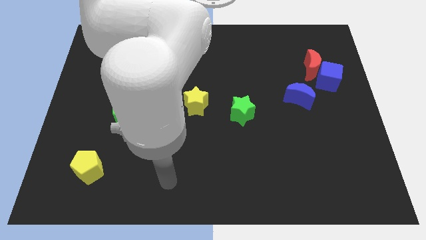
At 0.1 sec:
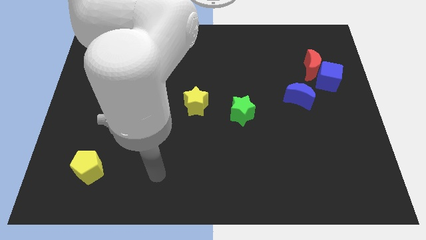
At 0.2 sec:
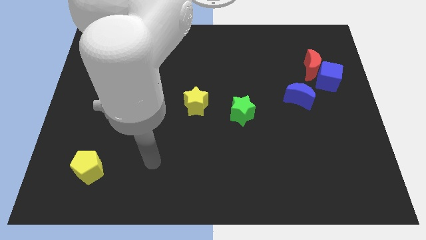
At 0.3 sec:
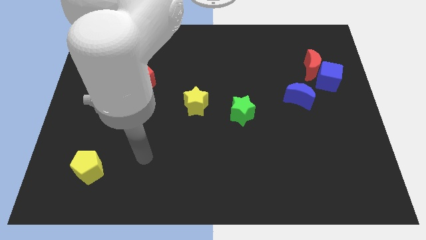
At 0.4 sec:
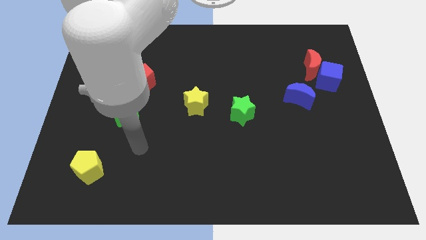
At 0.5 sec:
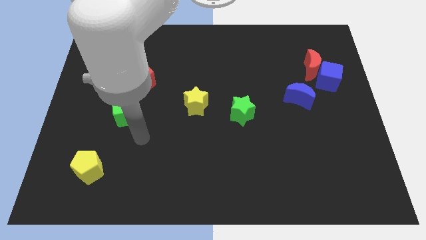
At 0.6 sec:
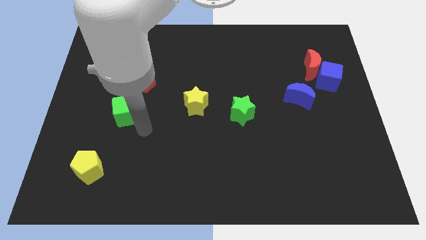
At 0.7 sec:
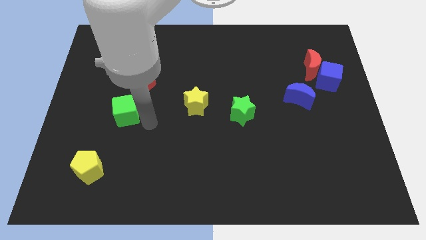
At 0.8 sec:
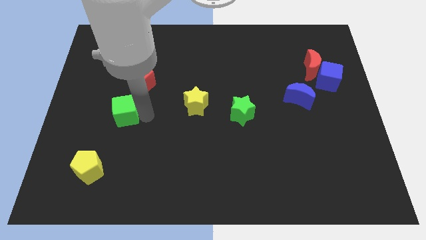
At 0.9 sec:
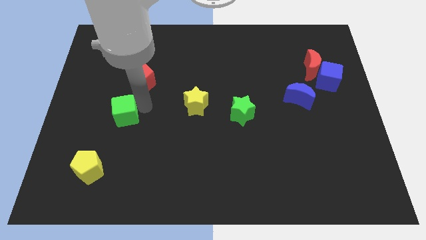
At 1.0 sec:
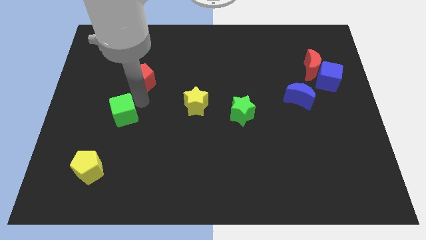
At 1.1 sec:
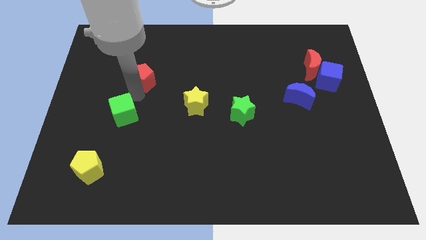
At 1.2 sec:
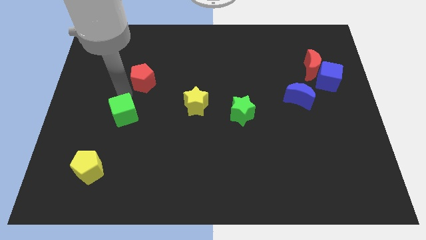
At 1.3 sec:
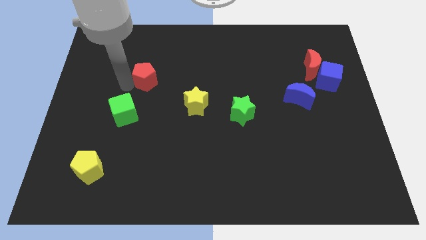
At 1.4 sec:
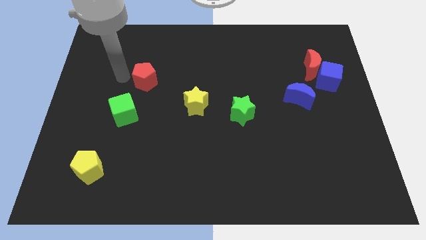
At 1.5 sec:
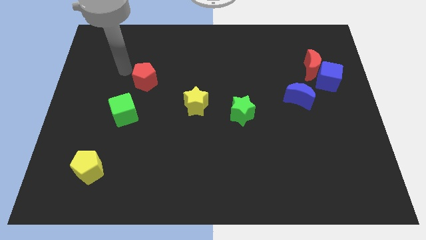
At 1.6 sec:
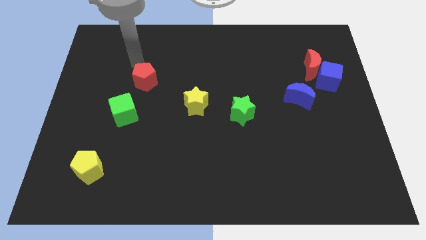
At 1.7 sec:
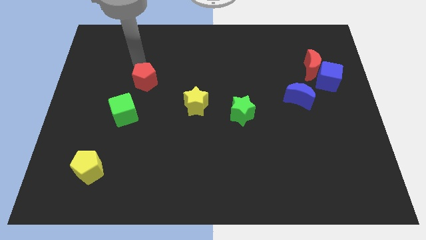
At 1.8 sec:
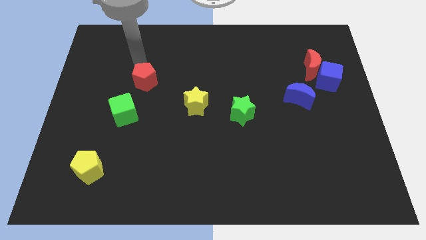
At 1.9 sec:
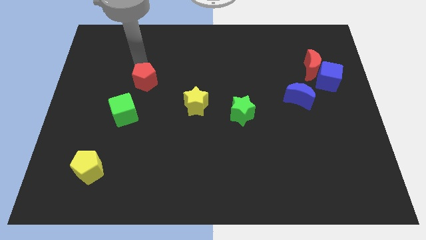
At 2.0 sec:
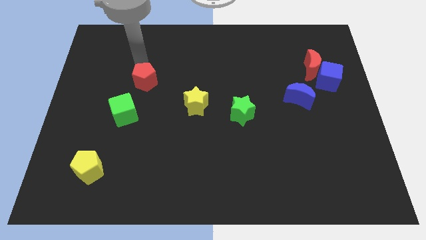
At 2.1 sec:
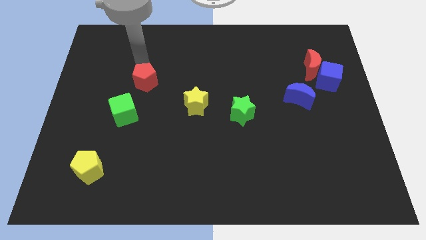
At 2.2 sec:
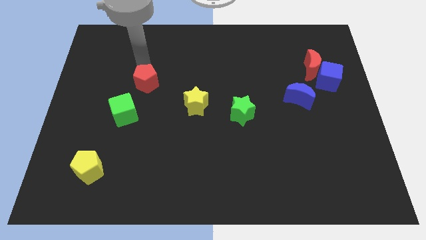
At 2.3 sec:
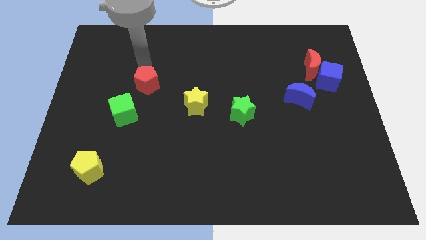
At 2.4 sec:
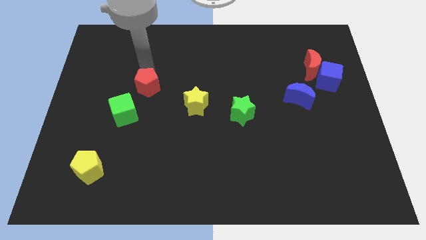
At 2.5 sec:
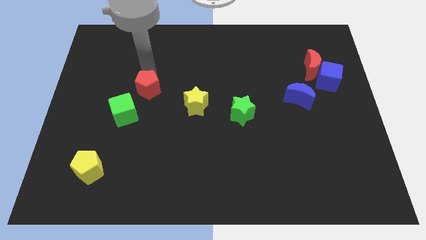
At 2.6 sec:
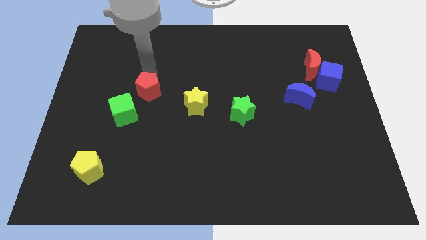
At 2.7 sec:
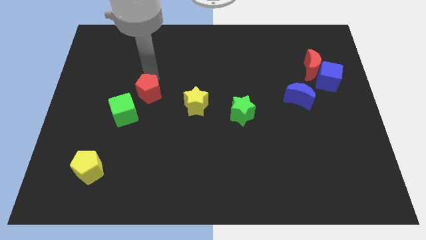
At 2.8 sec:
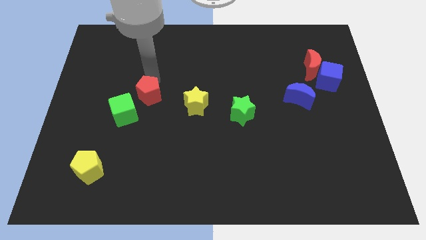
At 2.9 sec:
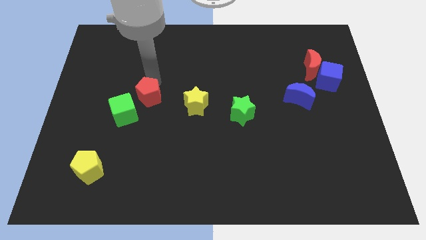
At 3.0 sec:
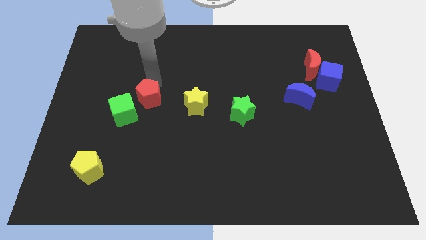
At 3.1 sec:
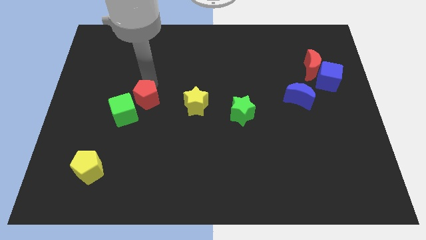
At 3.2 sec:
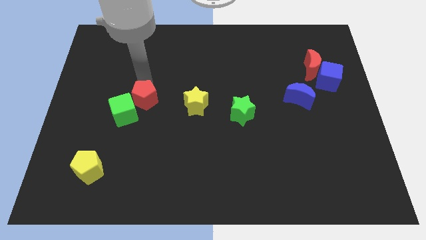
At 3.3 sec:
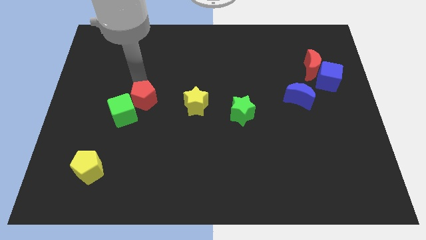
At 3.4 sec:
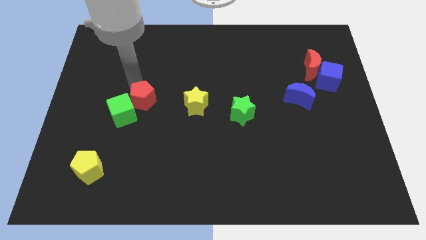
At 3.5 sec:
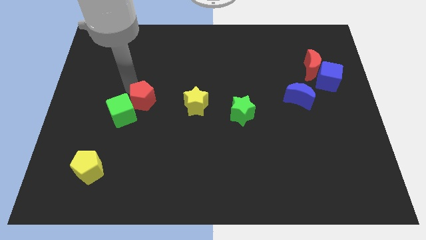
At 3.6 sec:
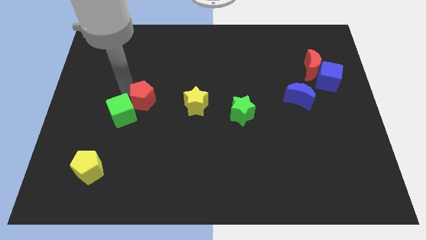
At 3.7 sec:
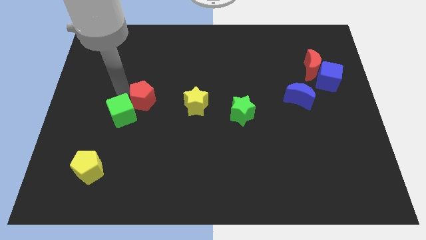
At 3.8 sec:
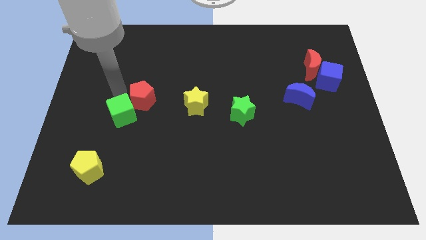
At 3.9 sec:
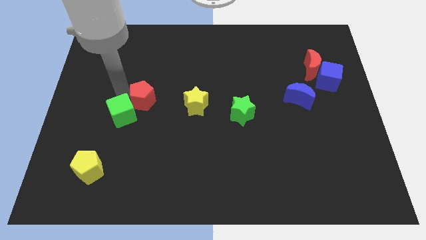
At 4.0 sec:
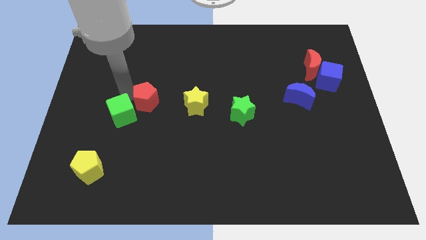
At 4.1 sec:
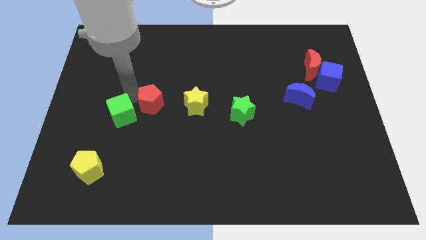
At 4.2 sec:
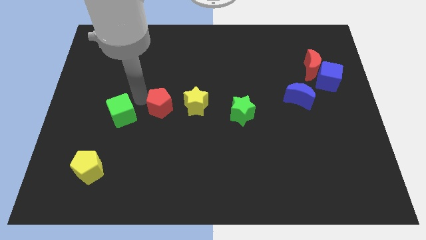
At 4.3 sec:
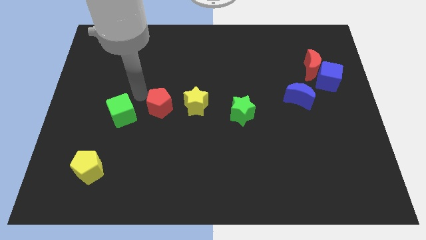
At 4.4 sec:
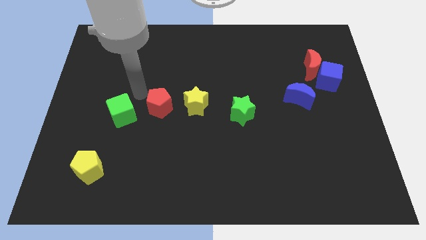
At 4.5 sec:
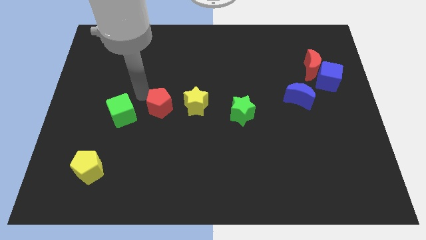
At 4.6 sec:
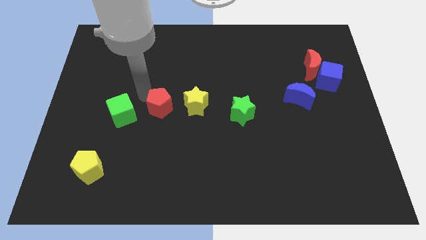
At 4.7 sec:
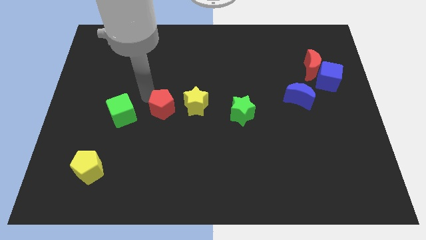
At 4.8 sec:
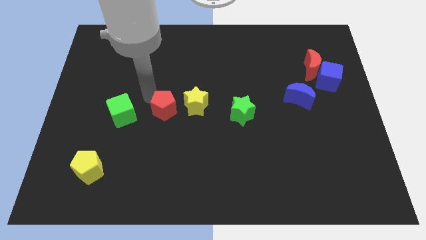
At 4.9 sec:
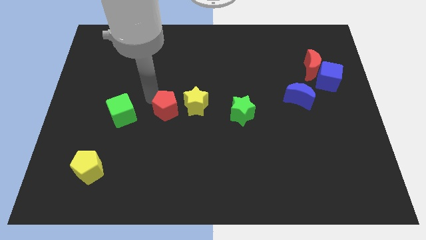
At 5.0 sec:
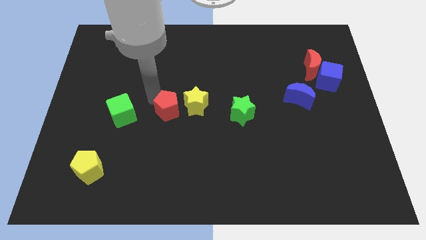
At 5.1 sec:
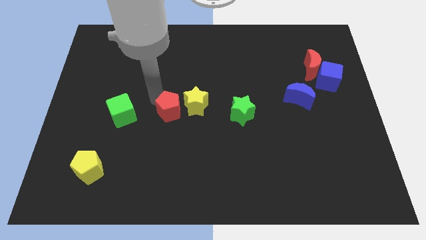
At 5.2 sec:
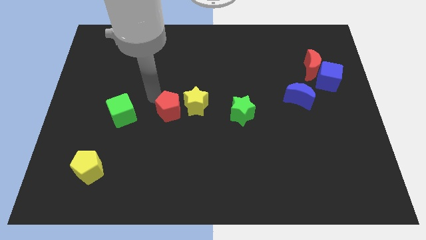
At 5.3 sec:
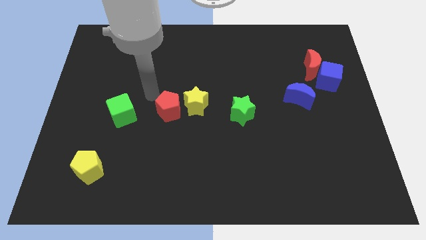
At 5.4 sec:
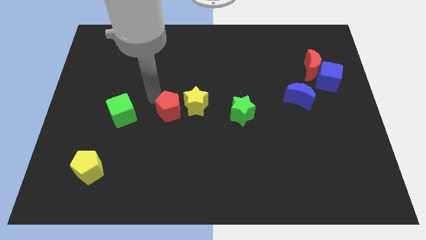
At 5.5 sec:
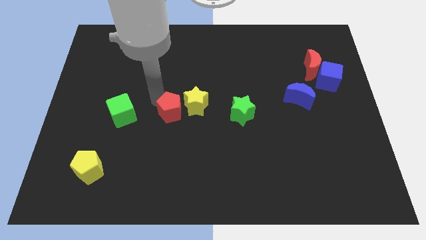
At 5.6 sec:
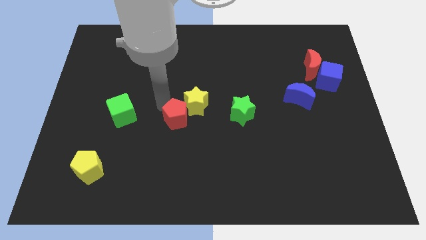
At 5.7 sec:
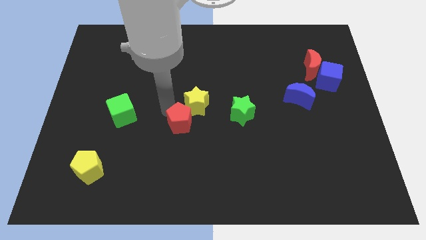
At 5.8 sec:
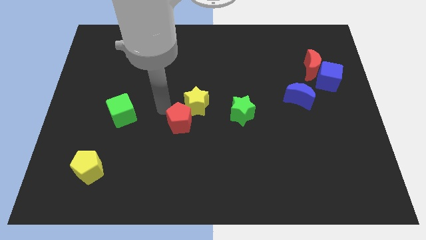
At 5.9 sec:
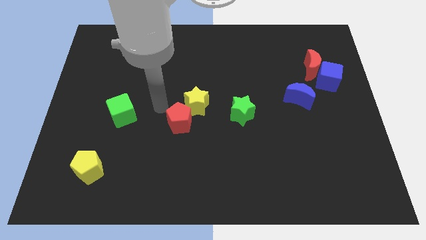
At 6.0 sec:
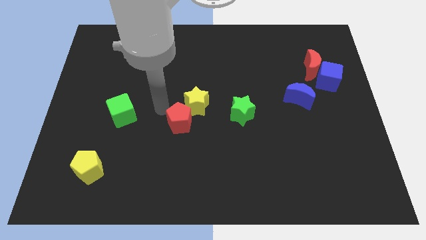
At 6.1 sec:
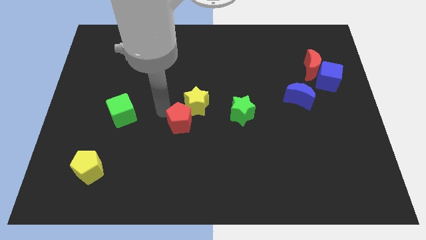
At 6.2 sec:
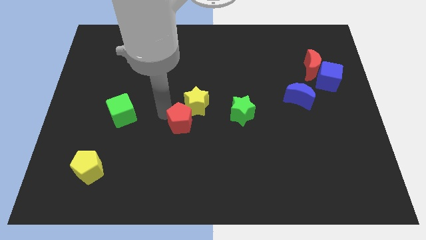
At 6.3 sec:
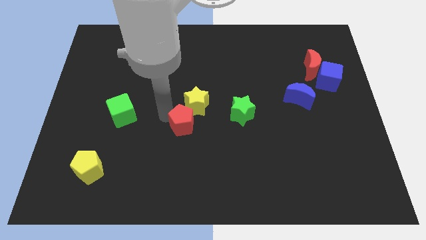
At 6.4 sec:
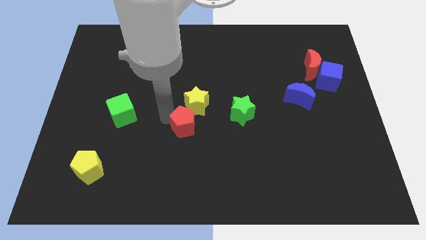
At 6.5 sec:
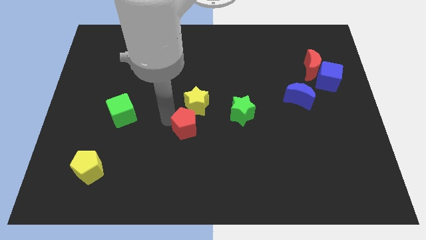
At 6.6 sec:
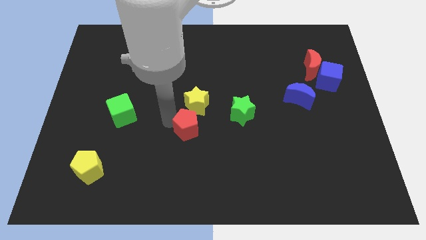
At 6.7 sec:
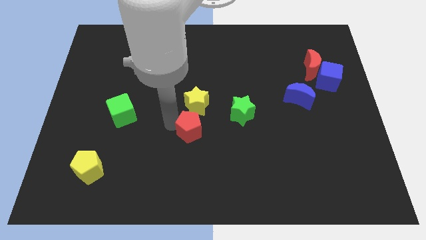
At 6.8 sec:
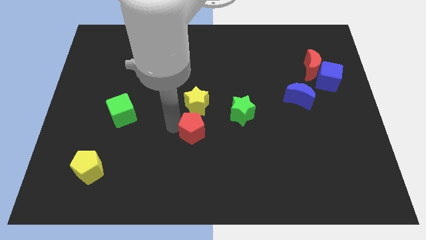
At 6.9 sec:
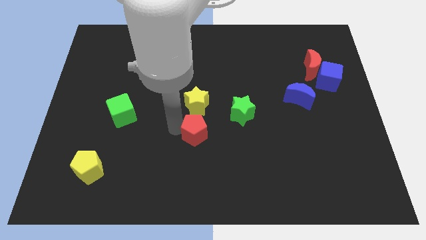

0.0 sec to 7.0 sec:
slide the red pentagon down and then right

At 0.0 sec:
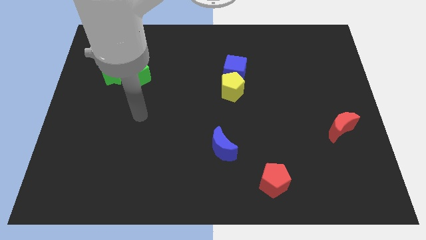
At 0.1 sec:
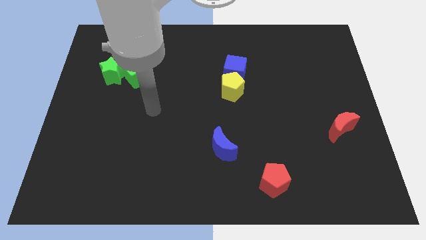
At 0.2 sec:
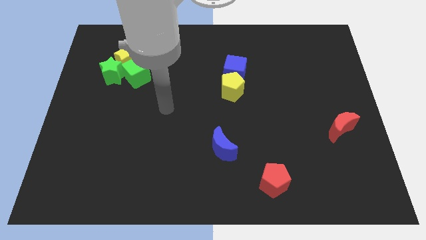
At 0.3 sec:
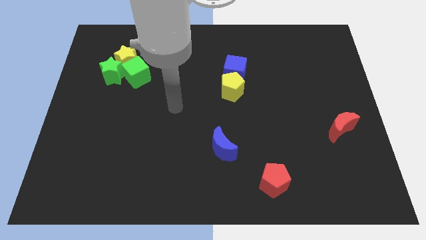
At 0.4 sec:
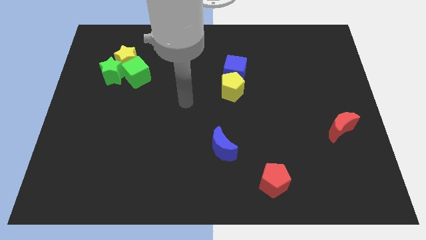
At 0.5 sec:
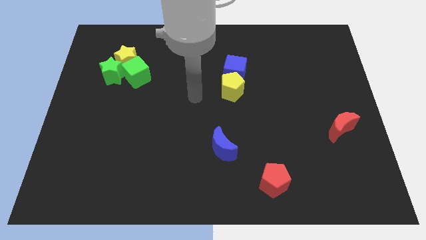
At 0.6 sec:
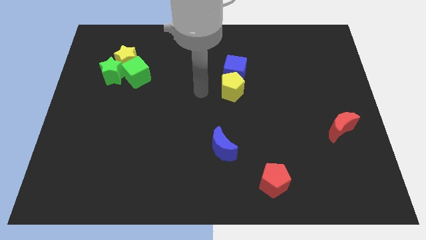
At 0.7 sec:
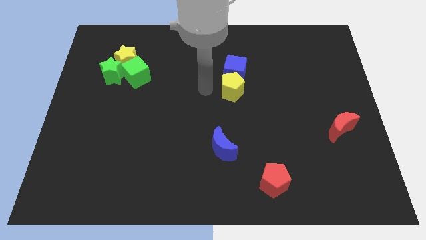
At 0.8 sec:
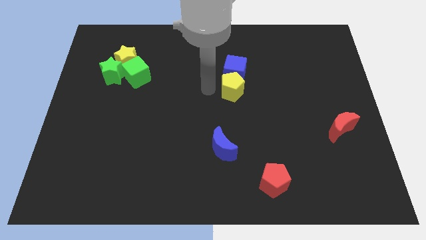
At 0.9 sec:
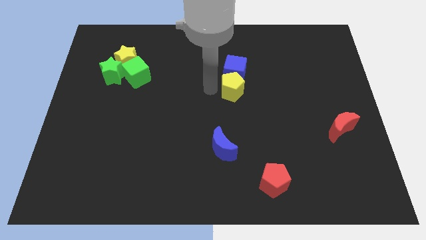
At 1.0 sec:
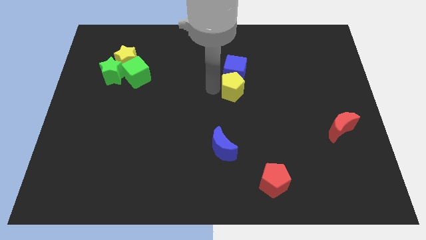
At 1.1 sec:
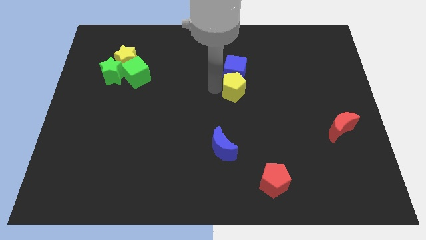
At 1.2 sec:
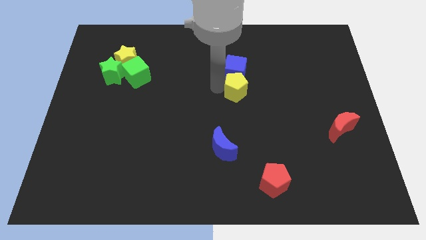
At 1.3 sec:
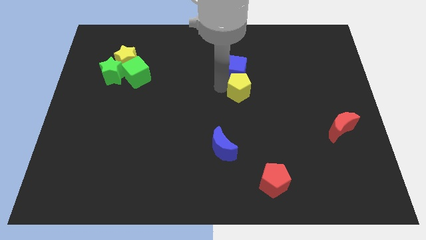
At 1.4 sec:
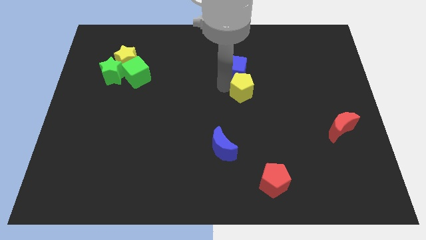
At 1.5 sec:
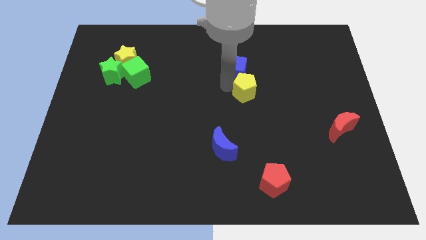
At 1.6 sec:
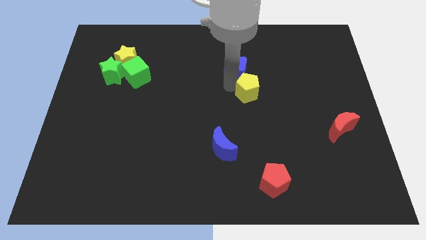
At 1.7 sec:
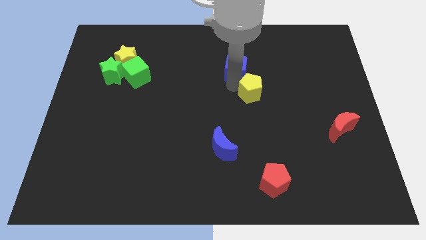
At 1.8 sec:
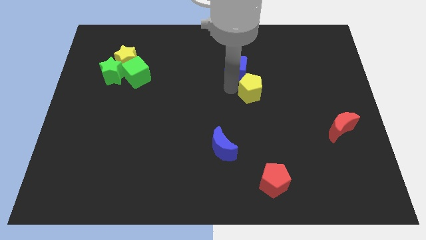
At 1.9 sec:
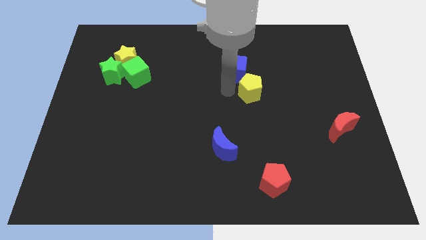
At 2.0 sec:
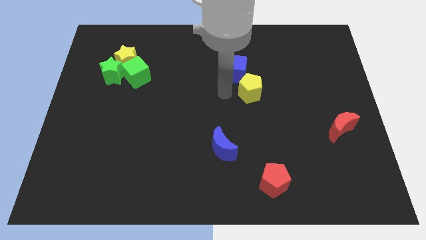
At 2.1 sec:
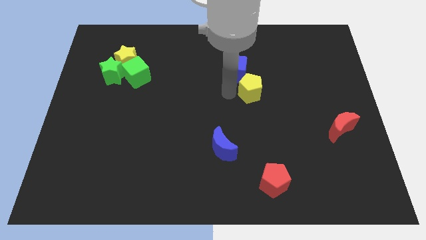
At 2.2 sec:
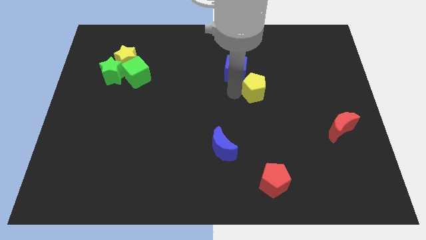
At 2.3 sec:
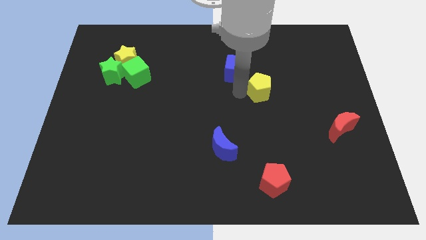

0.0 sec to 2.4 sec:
move the yellow pentagon to the right a little
